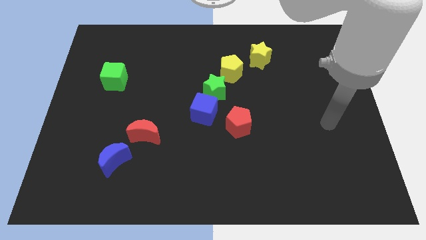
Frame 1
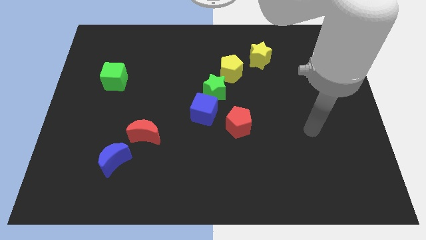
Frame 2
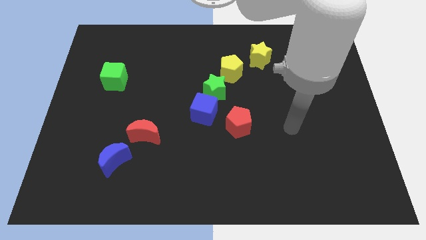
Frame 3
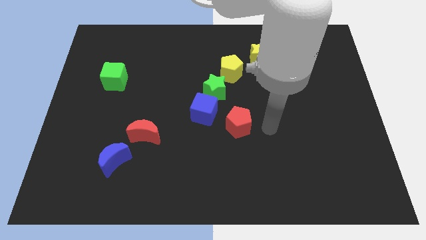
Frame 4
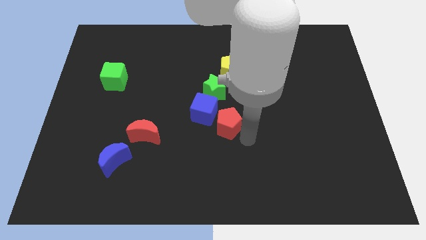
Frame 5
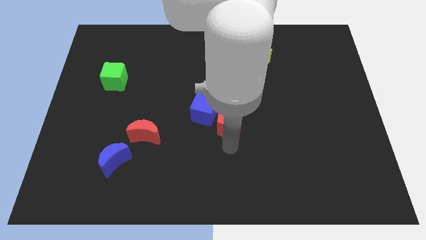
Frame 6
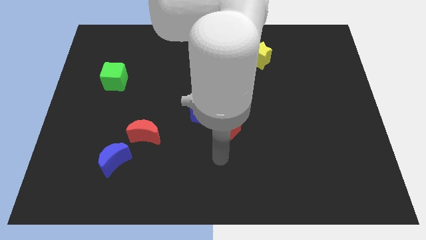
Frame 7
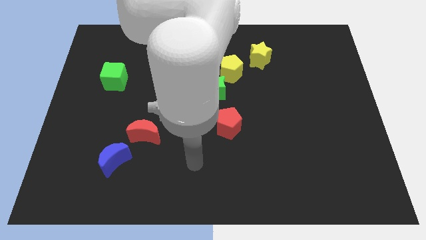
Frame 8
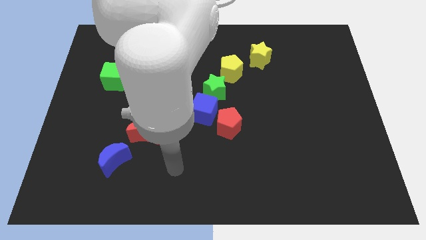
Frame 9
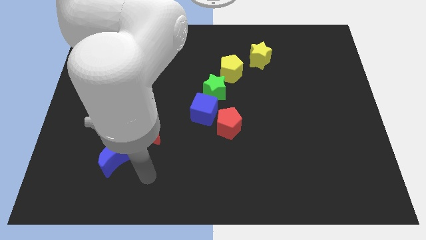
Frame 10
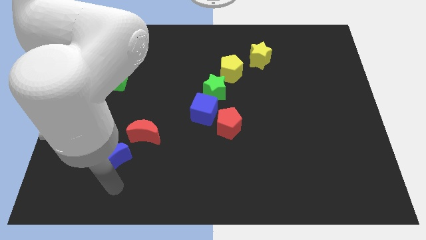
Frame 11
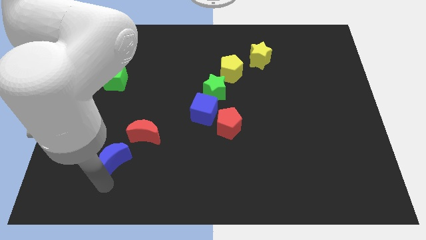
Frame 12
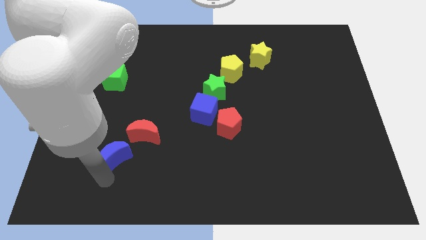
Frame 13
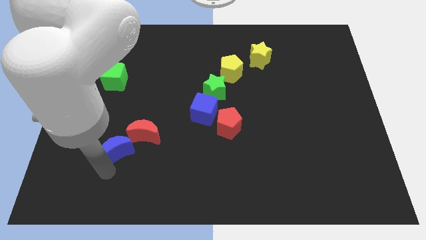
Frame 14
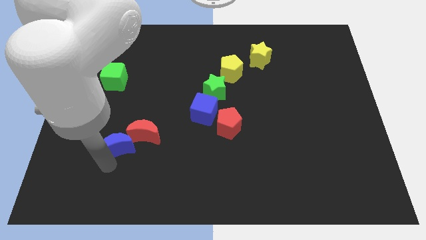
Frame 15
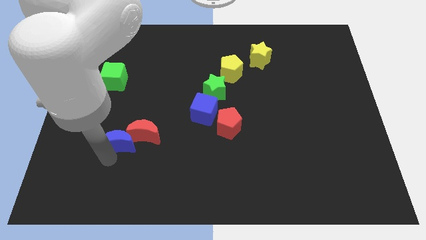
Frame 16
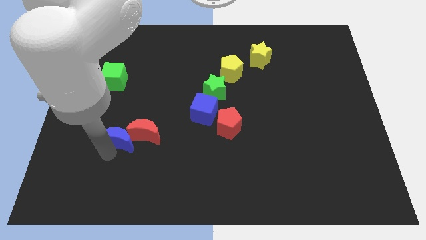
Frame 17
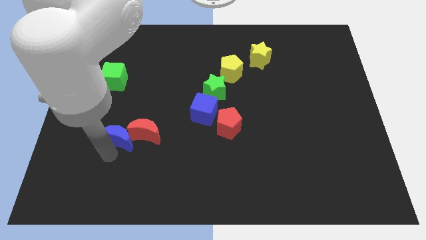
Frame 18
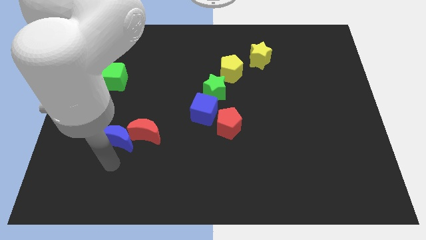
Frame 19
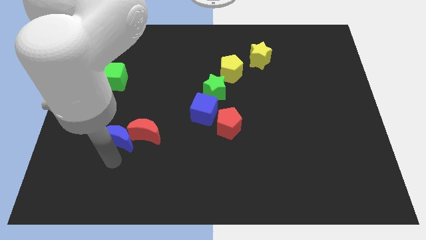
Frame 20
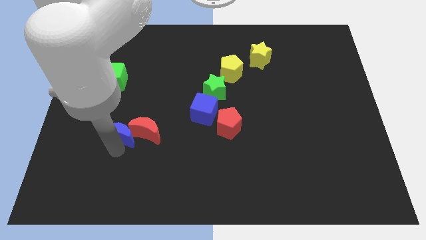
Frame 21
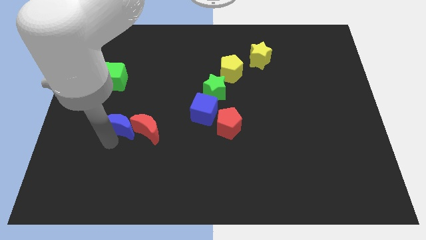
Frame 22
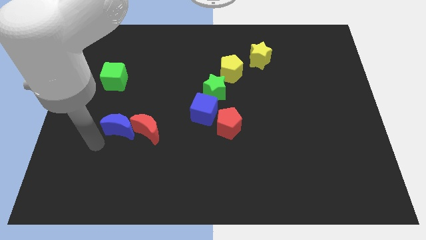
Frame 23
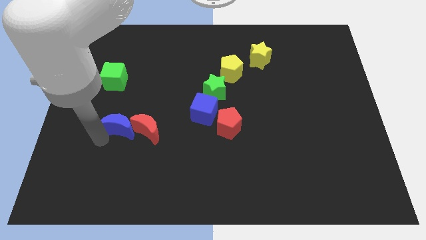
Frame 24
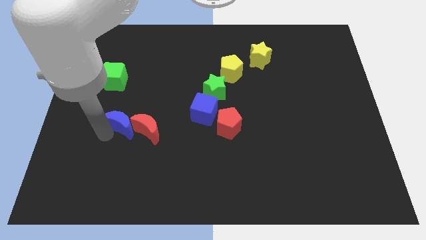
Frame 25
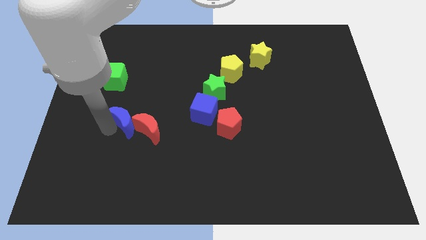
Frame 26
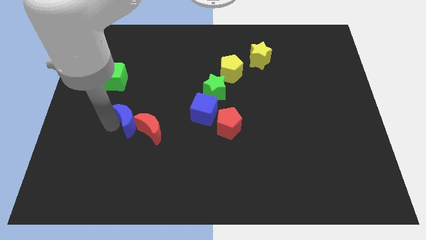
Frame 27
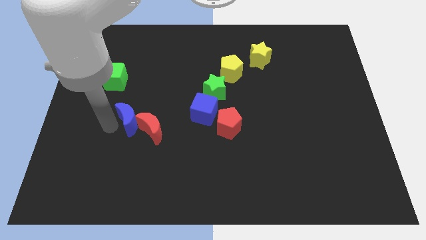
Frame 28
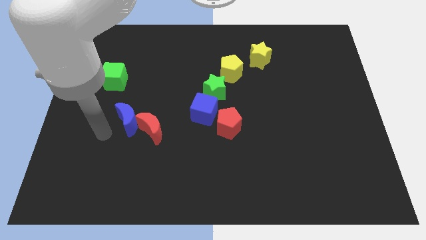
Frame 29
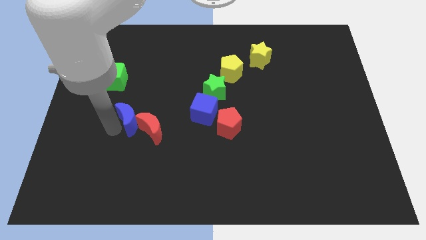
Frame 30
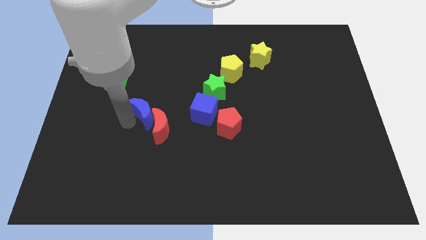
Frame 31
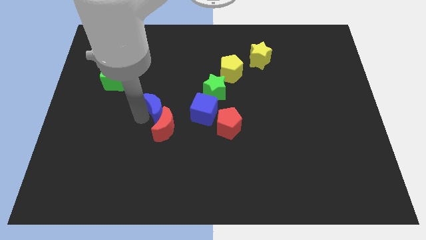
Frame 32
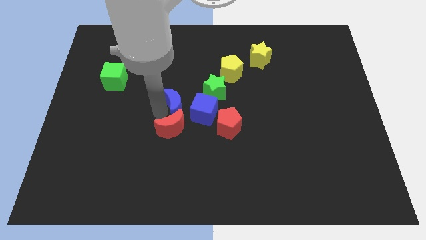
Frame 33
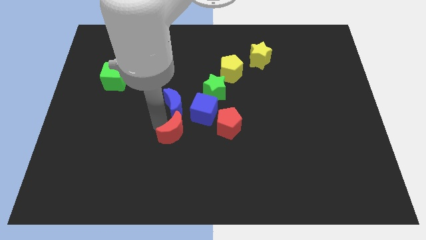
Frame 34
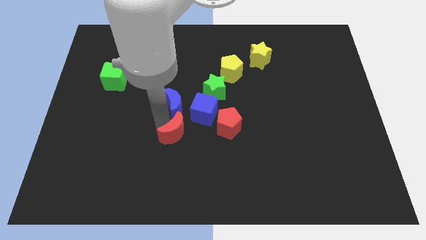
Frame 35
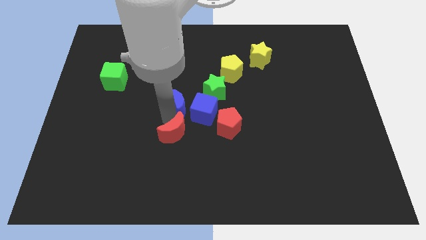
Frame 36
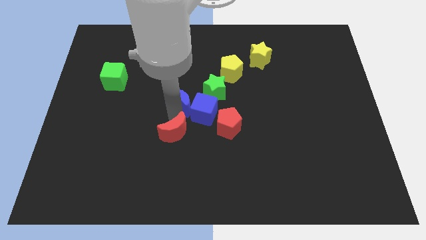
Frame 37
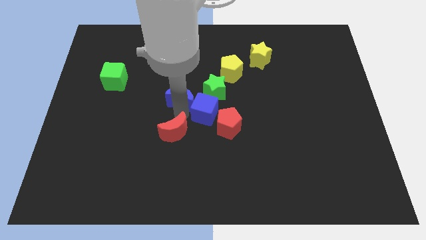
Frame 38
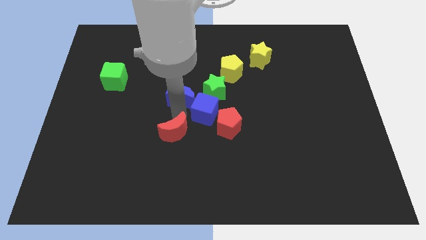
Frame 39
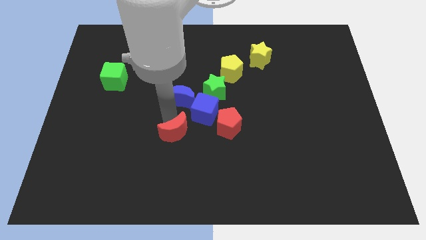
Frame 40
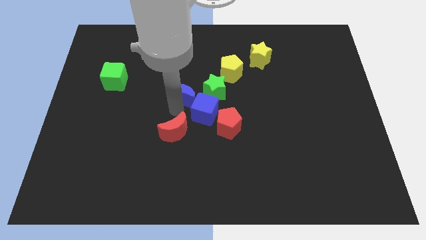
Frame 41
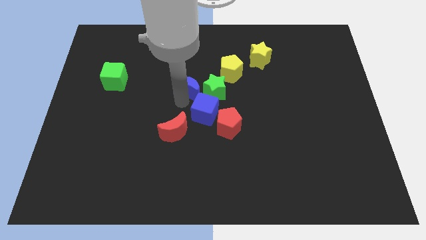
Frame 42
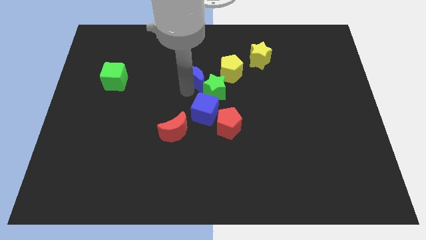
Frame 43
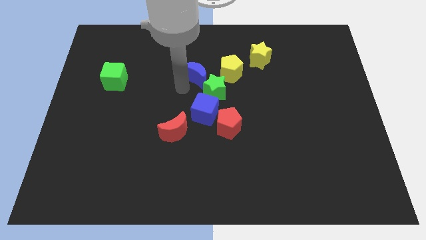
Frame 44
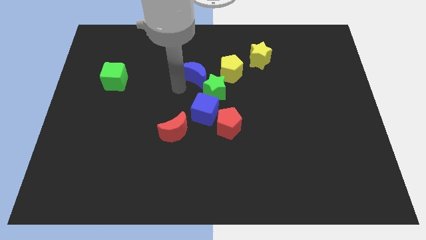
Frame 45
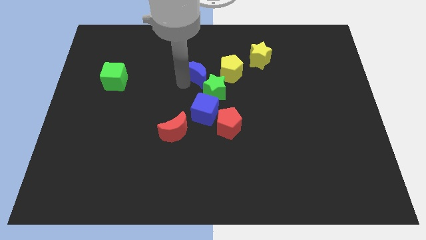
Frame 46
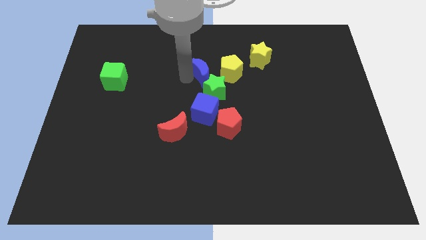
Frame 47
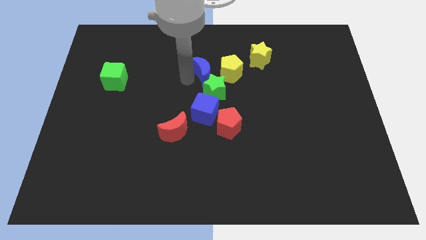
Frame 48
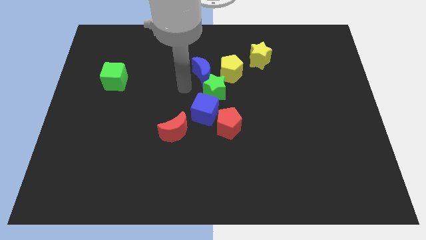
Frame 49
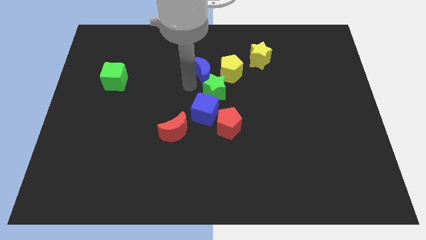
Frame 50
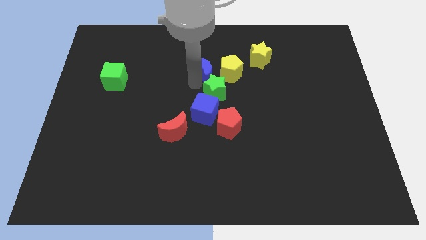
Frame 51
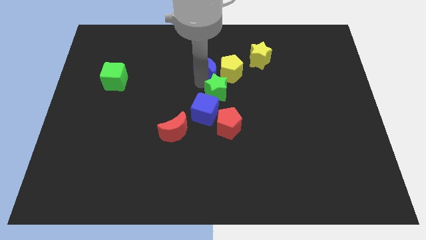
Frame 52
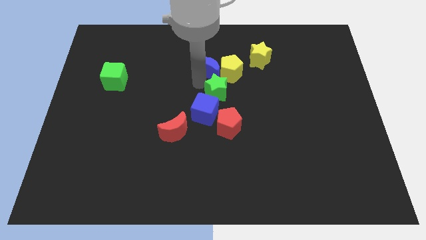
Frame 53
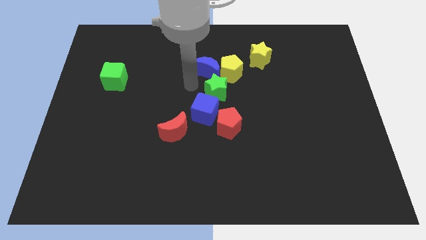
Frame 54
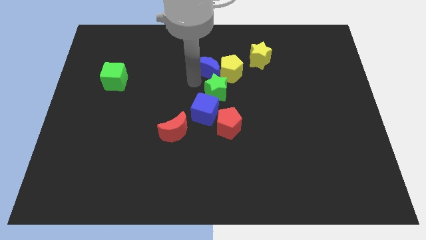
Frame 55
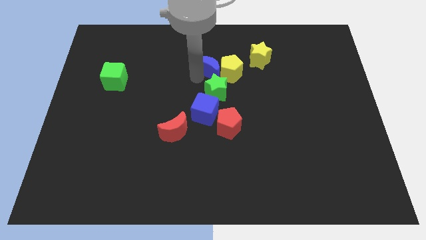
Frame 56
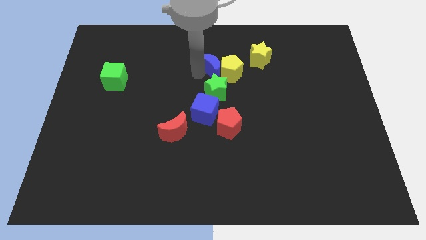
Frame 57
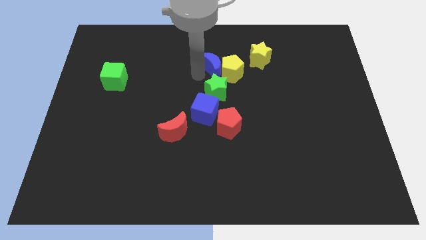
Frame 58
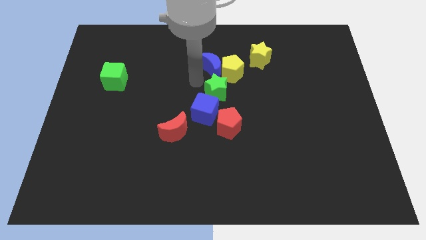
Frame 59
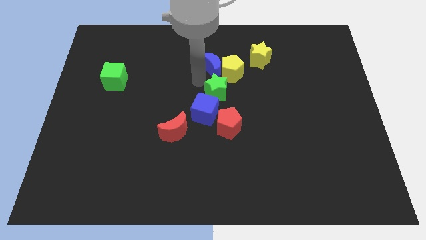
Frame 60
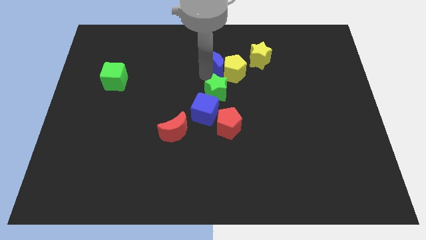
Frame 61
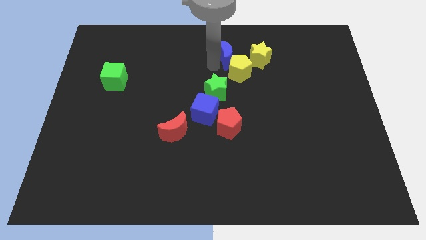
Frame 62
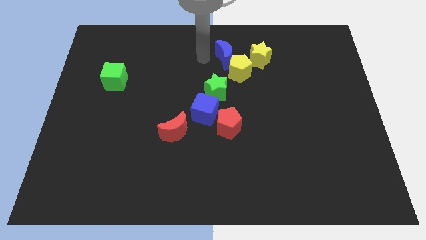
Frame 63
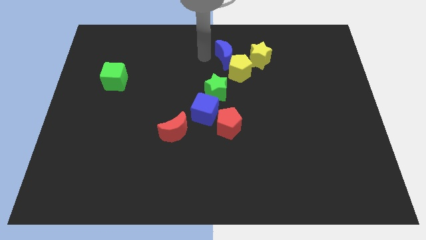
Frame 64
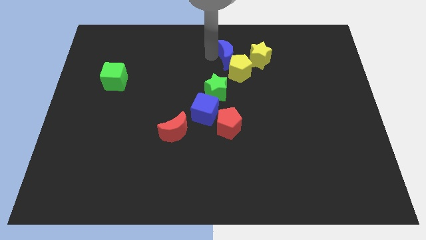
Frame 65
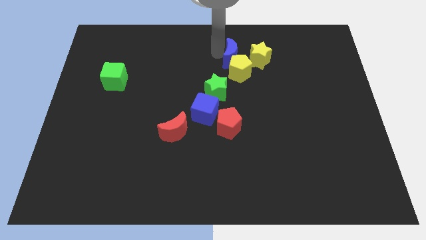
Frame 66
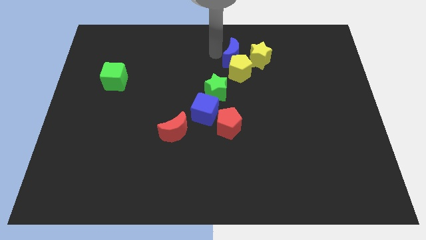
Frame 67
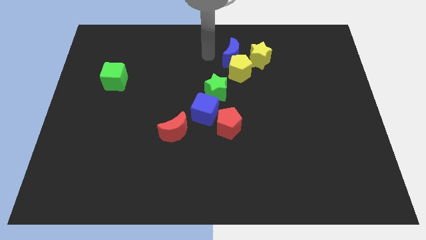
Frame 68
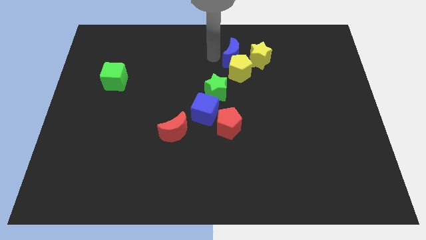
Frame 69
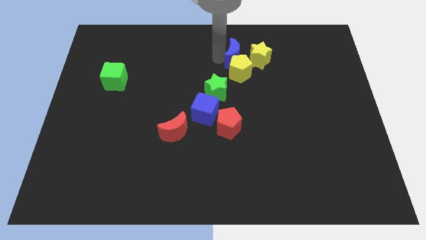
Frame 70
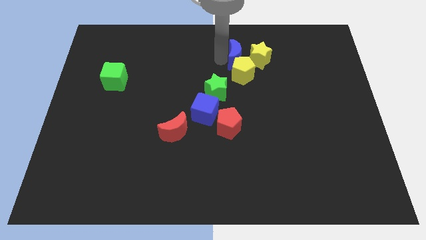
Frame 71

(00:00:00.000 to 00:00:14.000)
push the blue moon next to the yellow star

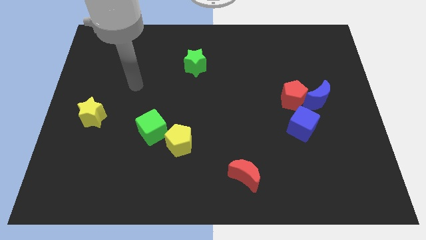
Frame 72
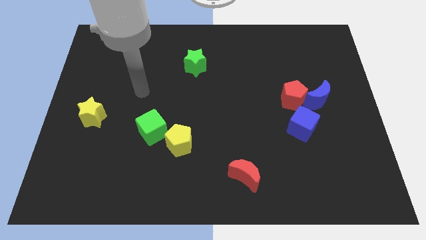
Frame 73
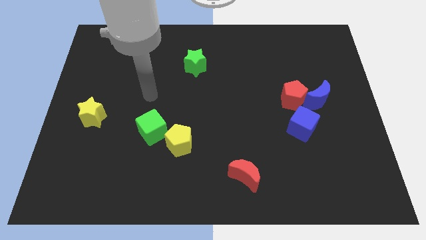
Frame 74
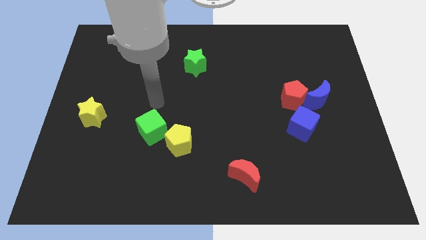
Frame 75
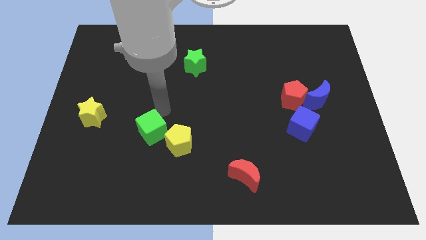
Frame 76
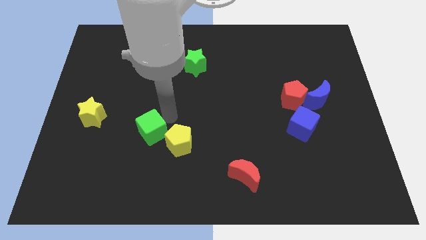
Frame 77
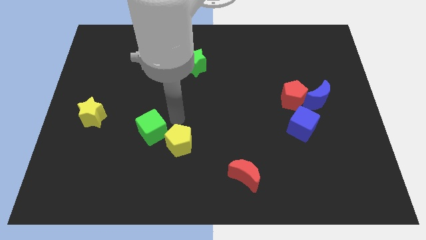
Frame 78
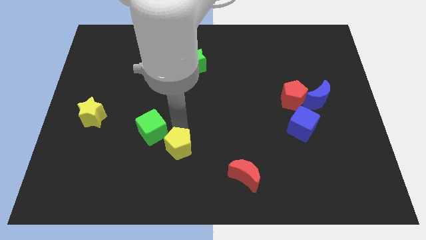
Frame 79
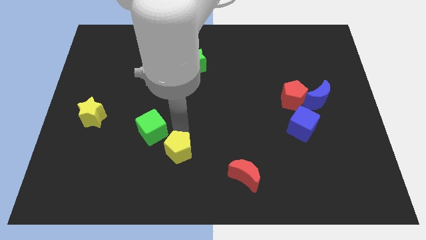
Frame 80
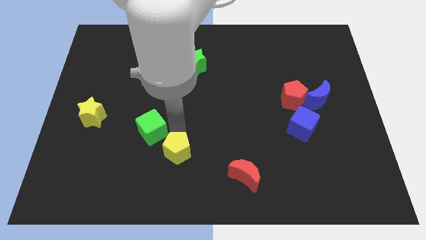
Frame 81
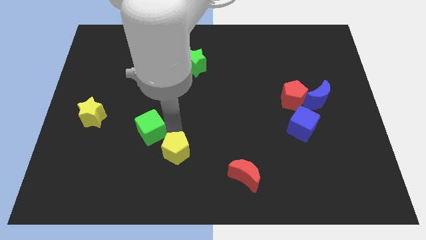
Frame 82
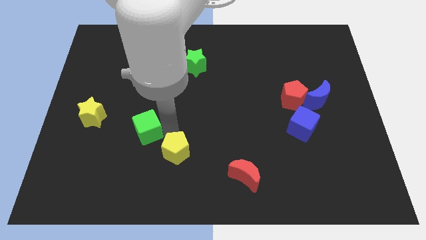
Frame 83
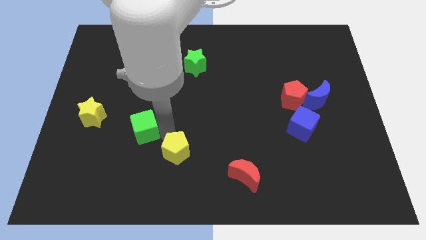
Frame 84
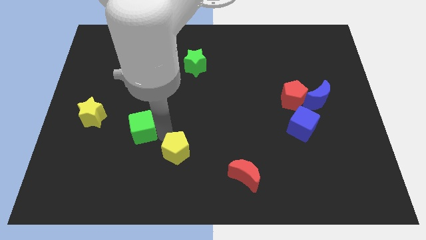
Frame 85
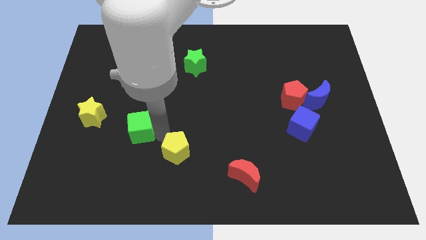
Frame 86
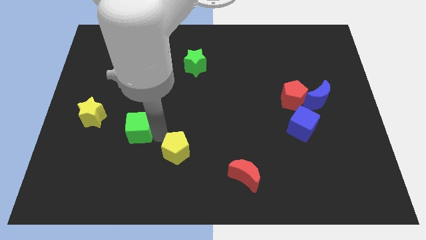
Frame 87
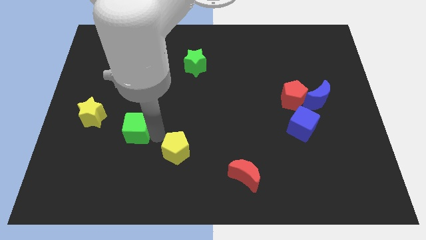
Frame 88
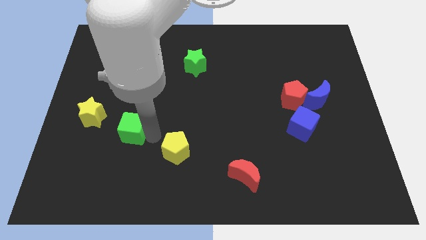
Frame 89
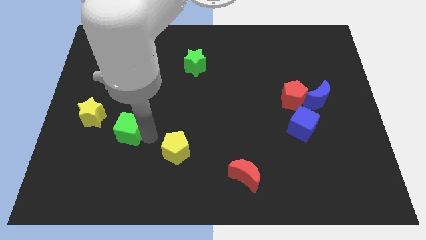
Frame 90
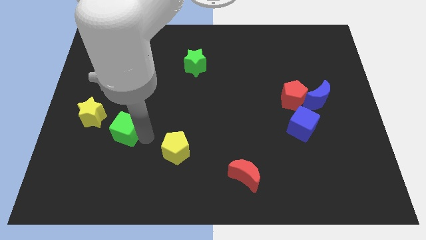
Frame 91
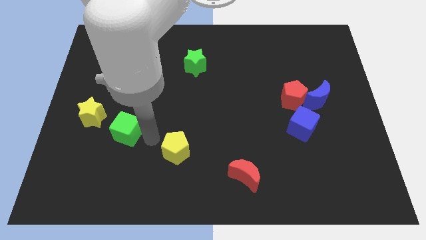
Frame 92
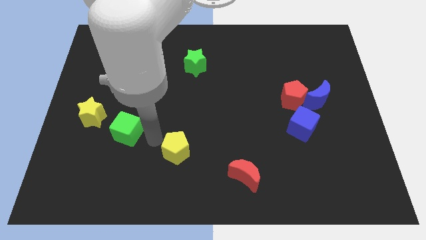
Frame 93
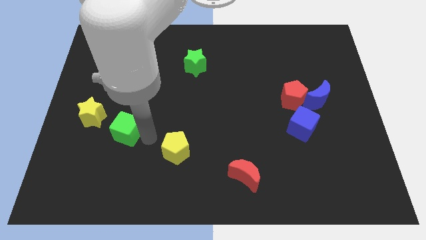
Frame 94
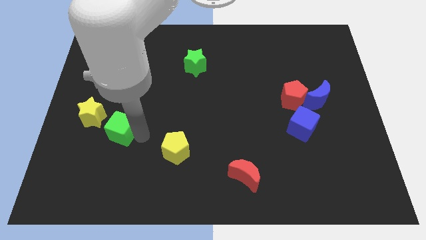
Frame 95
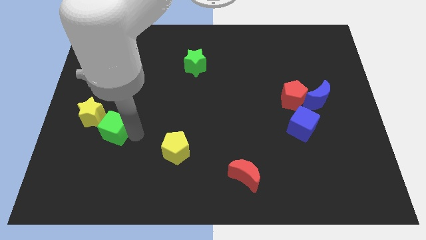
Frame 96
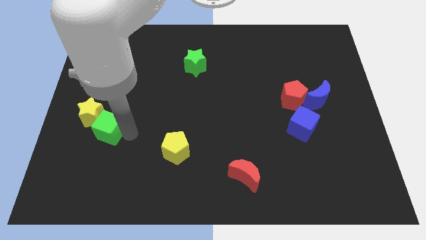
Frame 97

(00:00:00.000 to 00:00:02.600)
move the green cube towards the yellow star
